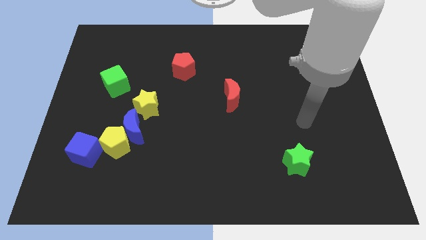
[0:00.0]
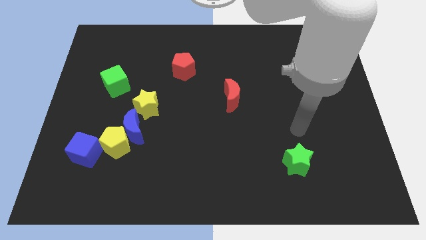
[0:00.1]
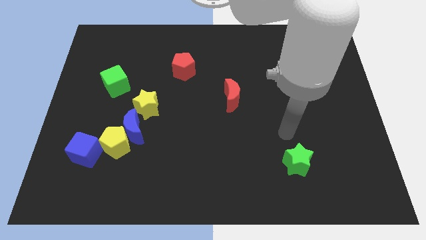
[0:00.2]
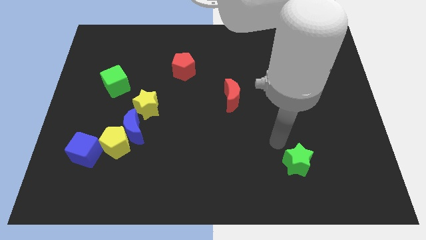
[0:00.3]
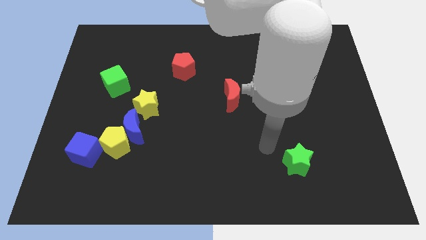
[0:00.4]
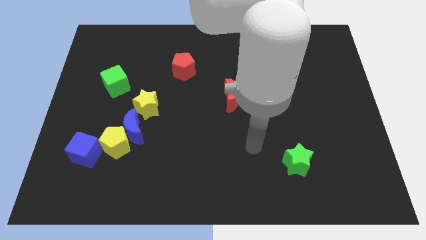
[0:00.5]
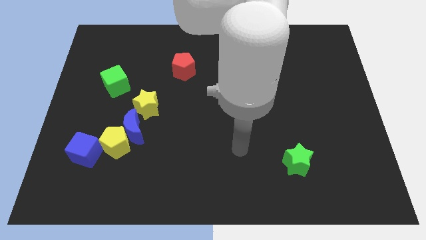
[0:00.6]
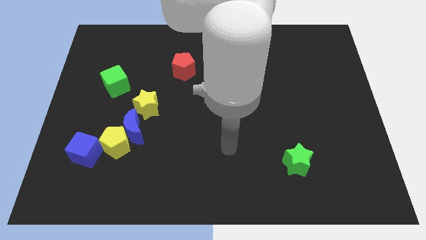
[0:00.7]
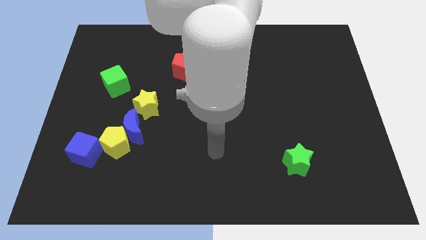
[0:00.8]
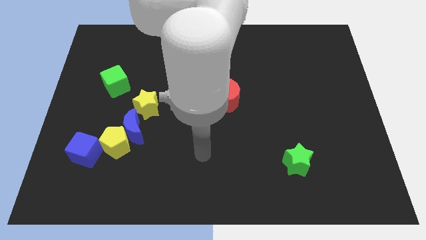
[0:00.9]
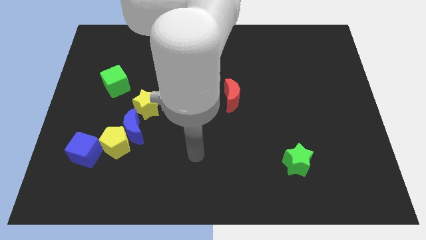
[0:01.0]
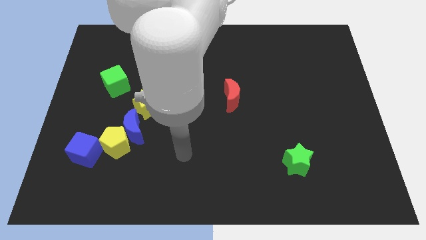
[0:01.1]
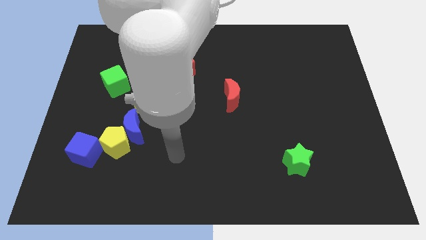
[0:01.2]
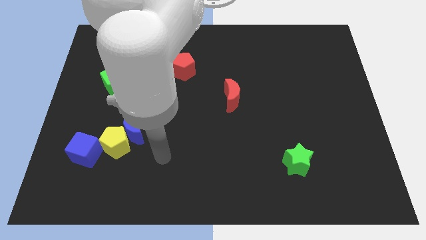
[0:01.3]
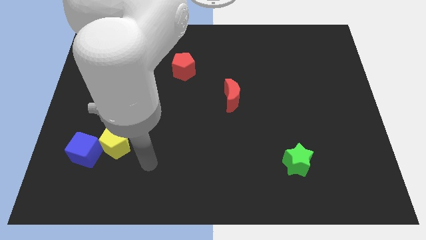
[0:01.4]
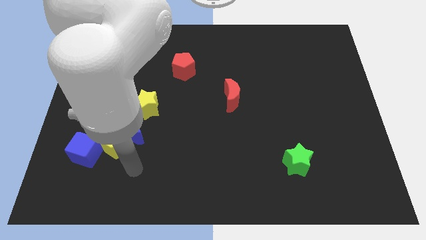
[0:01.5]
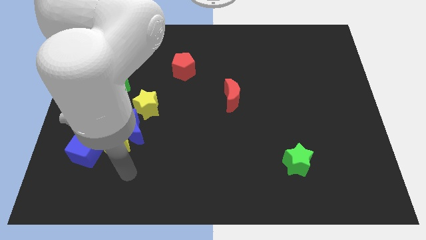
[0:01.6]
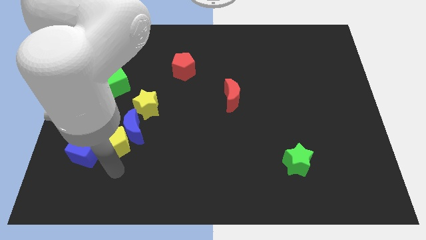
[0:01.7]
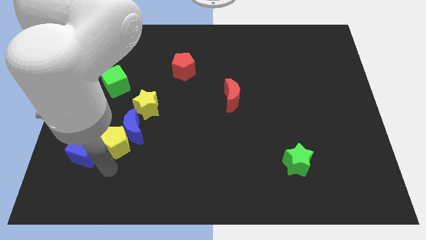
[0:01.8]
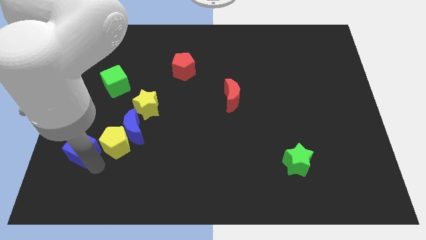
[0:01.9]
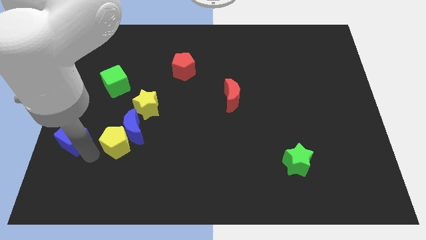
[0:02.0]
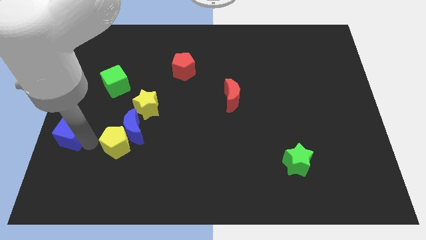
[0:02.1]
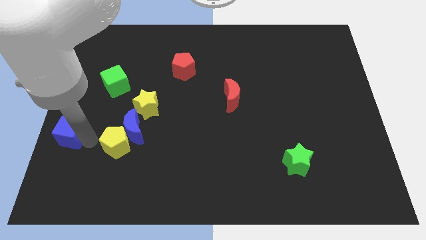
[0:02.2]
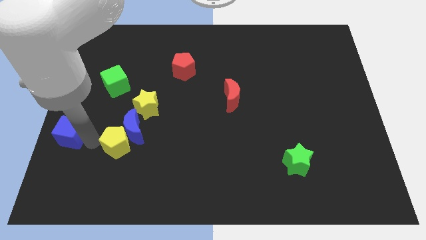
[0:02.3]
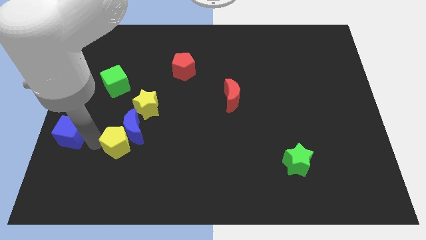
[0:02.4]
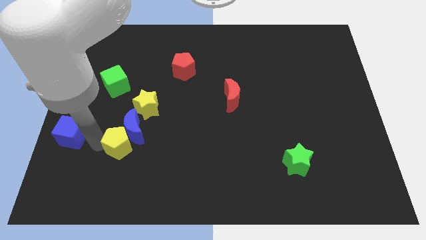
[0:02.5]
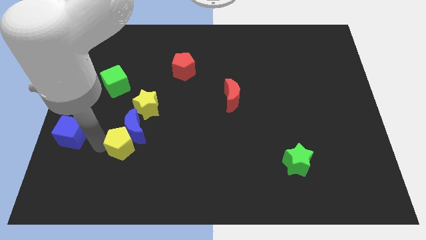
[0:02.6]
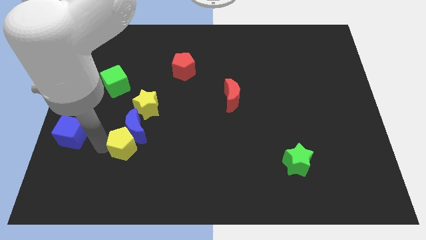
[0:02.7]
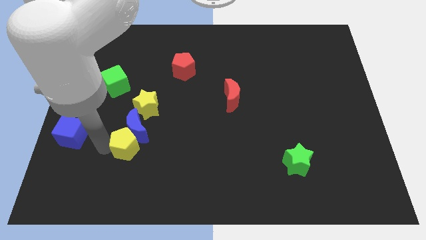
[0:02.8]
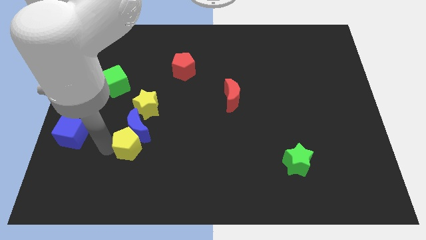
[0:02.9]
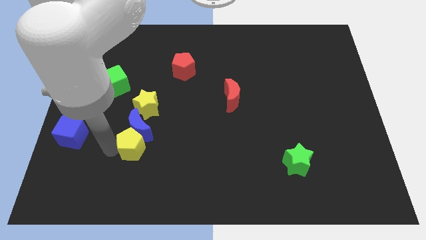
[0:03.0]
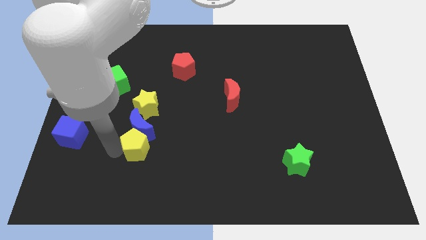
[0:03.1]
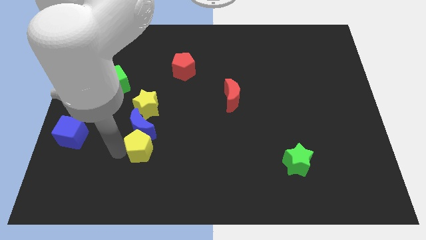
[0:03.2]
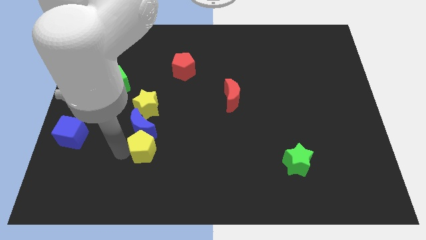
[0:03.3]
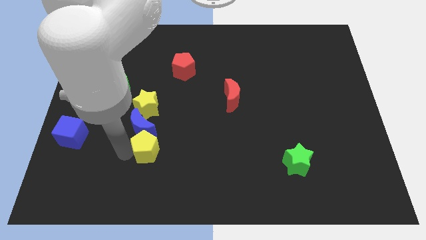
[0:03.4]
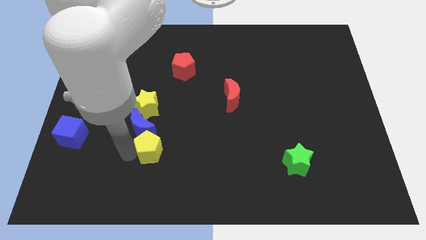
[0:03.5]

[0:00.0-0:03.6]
slightly slide the yellow pentagon right

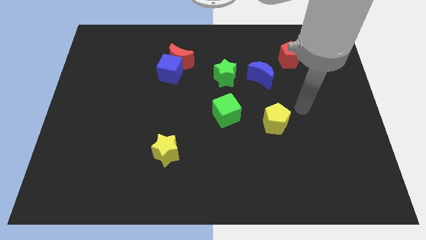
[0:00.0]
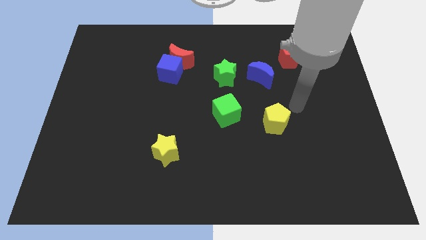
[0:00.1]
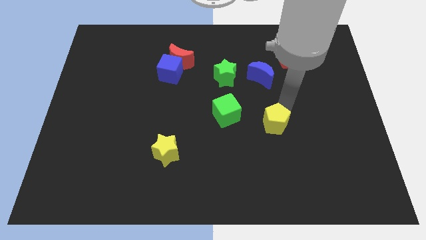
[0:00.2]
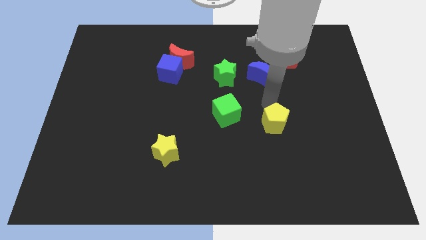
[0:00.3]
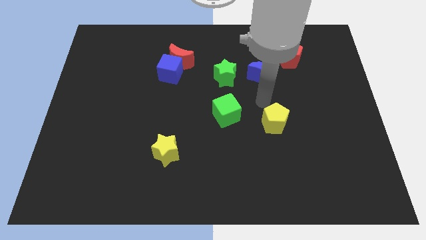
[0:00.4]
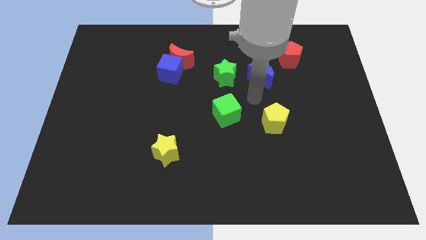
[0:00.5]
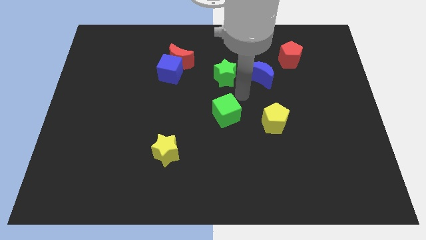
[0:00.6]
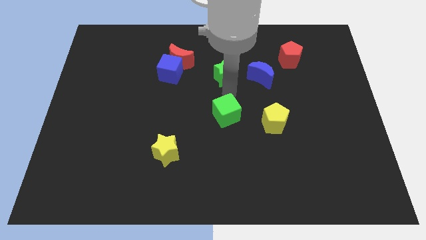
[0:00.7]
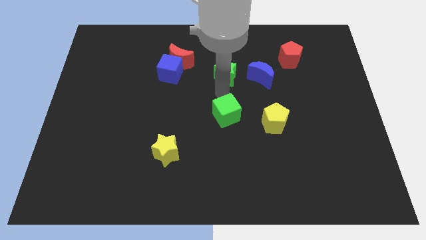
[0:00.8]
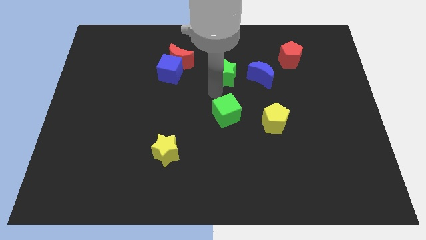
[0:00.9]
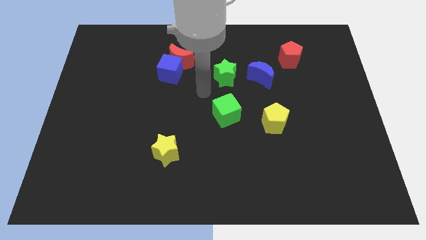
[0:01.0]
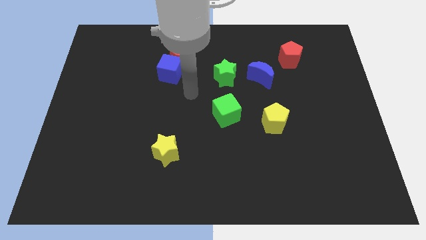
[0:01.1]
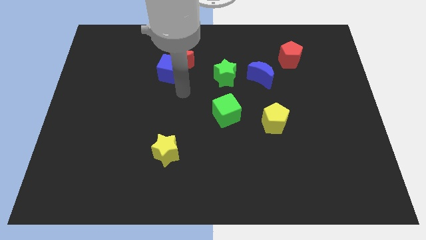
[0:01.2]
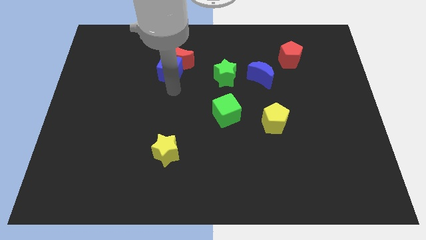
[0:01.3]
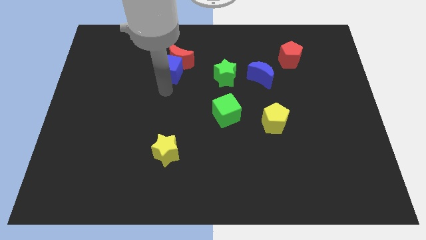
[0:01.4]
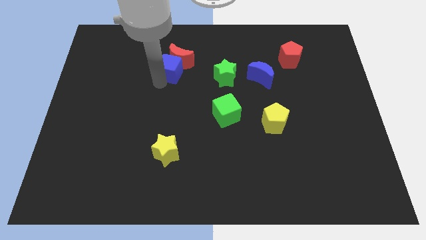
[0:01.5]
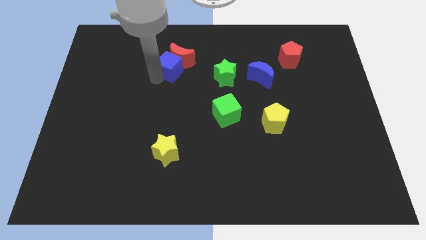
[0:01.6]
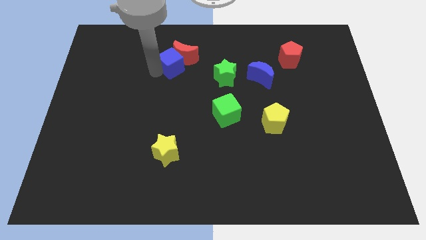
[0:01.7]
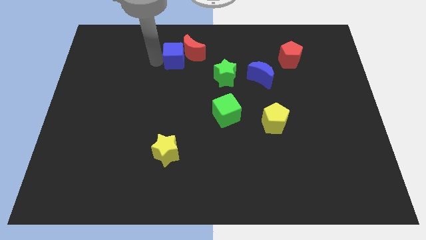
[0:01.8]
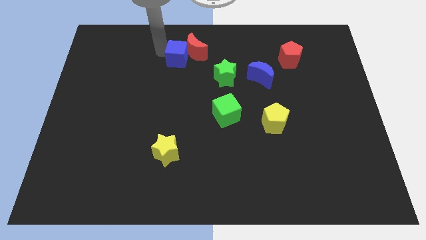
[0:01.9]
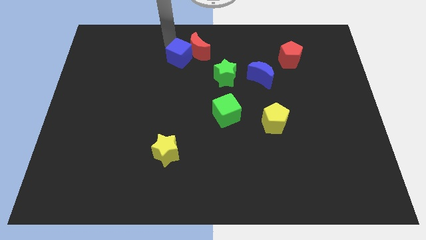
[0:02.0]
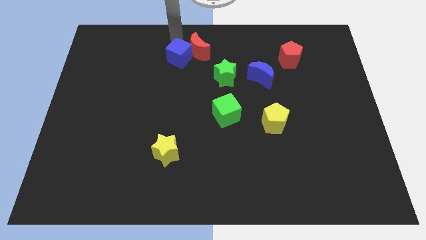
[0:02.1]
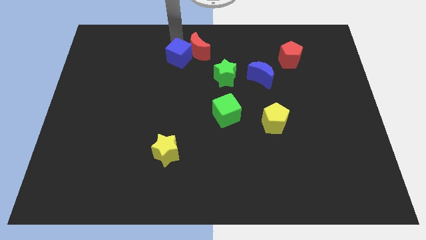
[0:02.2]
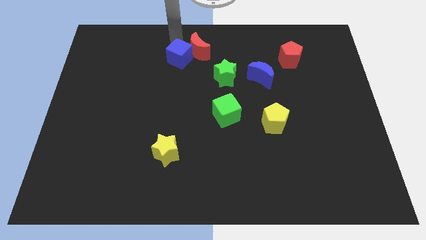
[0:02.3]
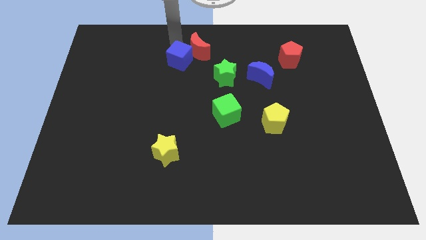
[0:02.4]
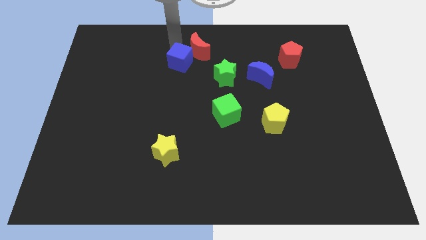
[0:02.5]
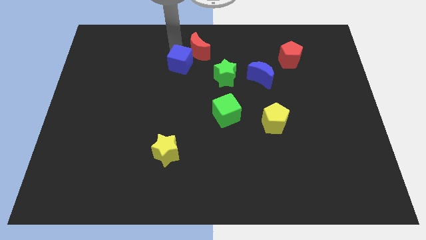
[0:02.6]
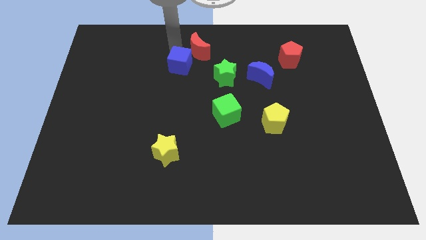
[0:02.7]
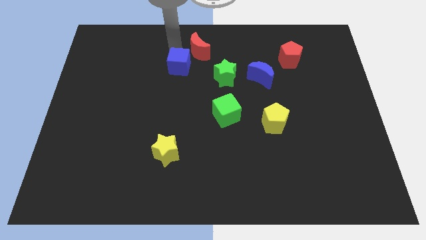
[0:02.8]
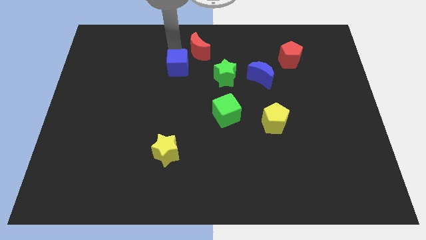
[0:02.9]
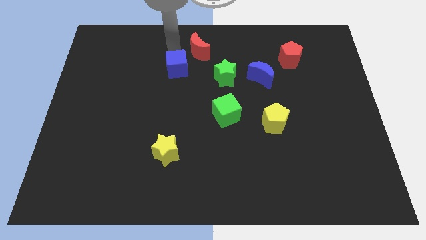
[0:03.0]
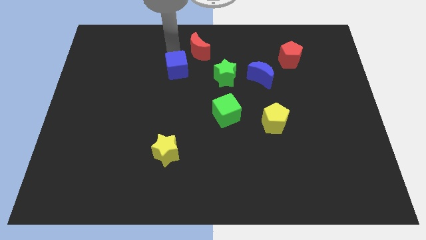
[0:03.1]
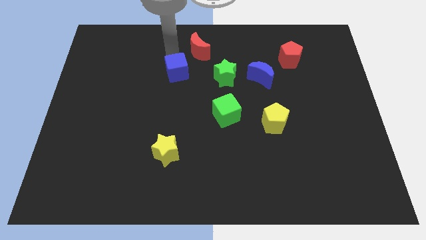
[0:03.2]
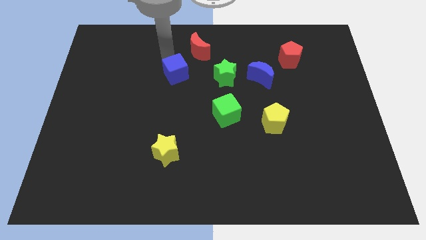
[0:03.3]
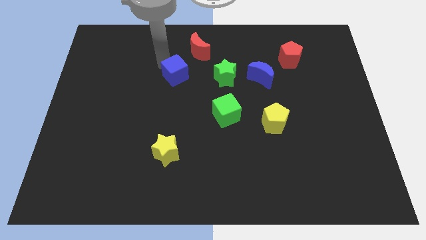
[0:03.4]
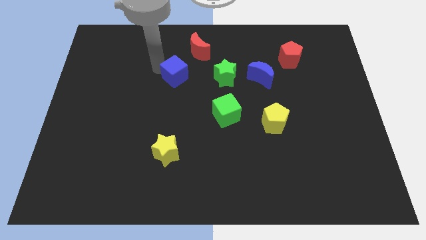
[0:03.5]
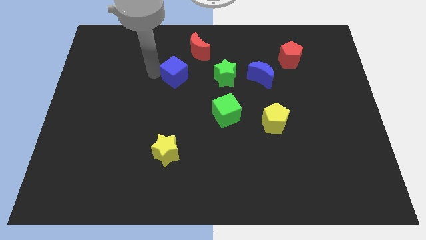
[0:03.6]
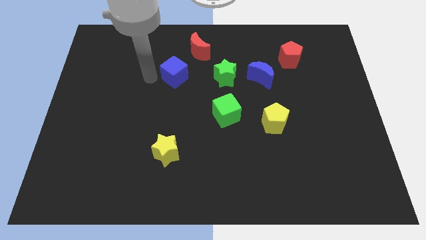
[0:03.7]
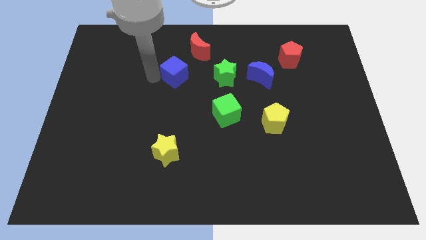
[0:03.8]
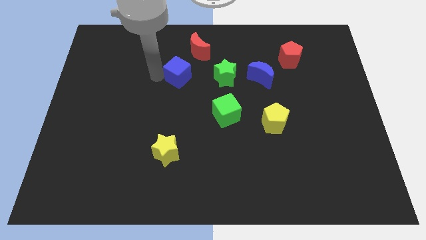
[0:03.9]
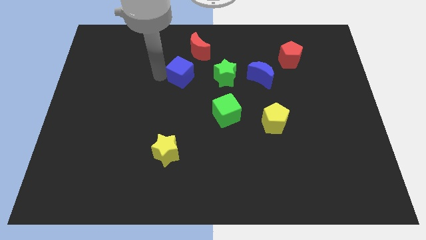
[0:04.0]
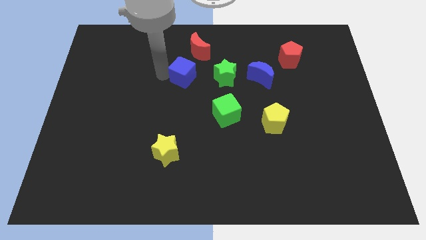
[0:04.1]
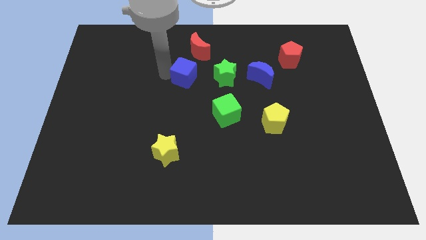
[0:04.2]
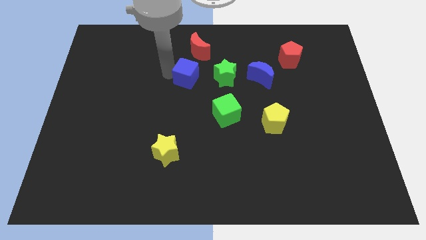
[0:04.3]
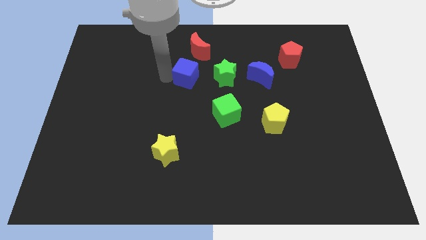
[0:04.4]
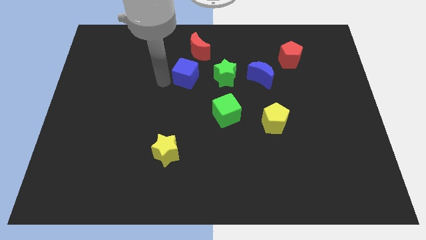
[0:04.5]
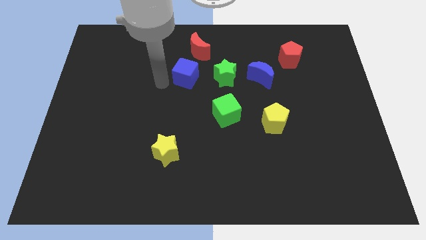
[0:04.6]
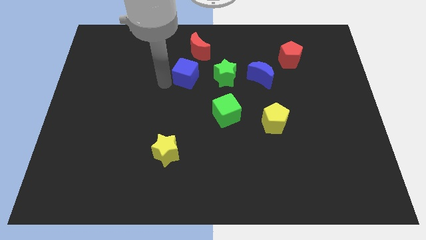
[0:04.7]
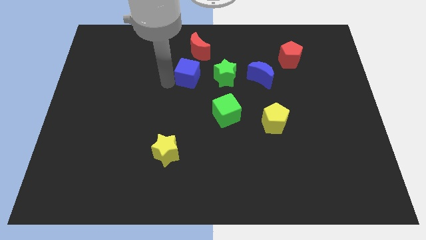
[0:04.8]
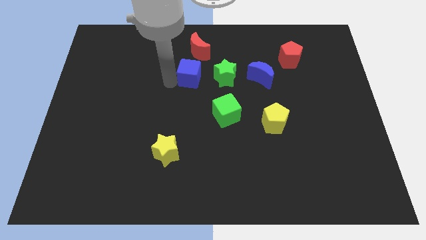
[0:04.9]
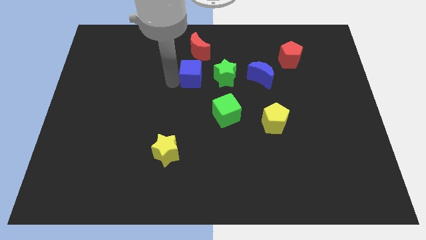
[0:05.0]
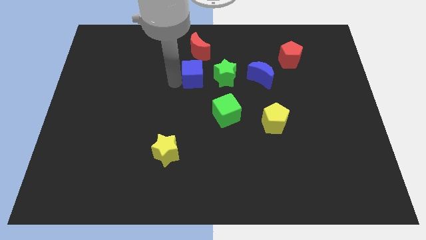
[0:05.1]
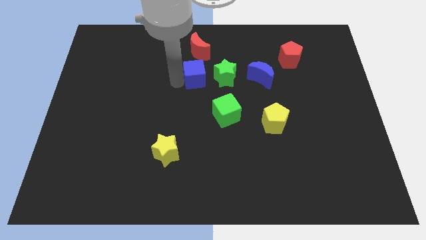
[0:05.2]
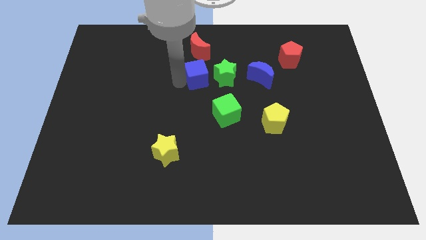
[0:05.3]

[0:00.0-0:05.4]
push the blue cube slightly to the right
